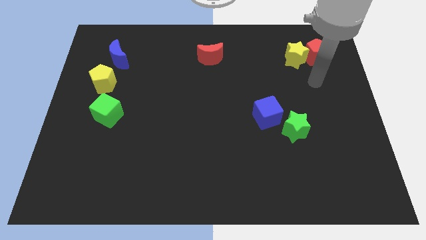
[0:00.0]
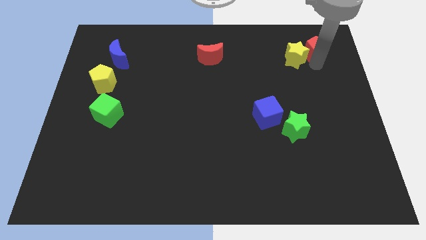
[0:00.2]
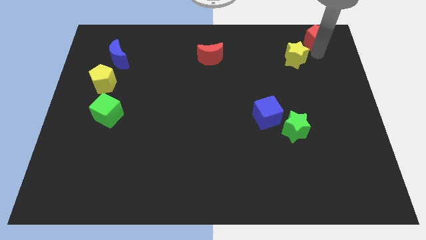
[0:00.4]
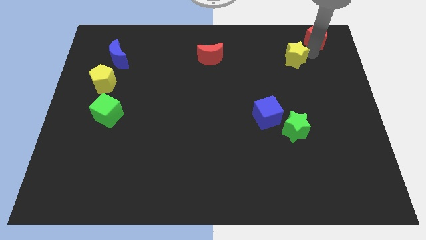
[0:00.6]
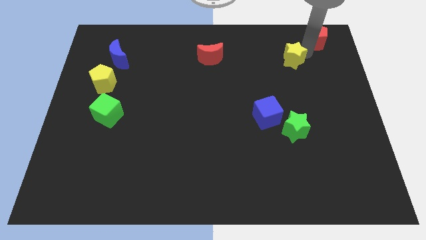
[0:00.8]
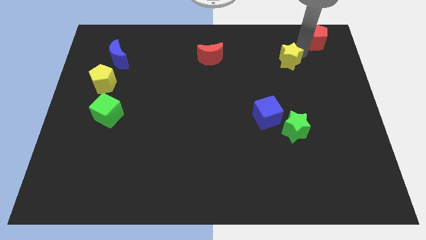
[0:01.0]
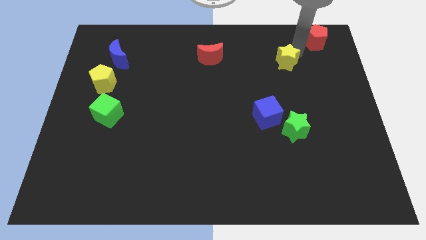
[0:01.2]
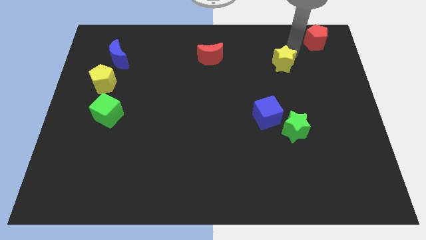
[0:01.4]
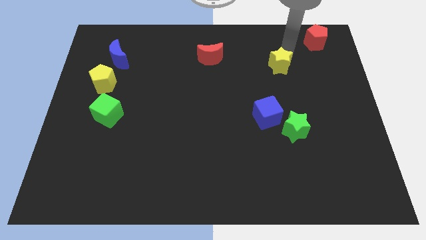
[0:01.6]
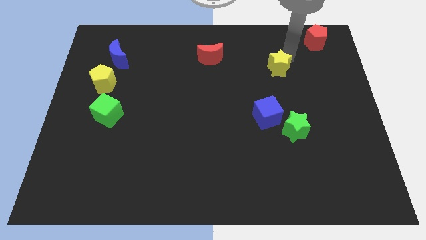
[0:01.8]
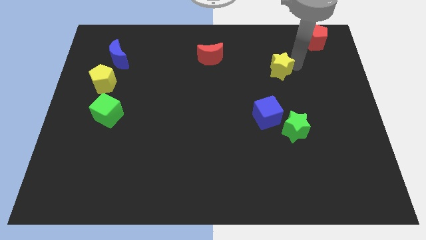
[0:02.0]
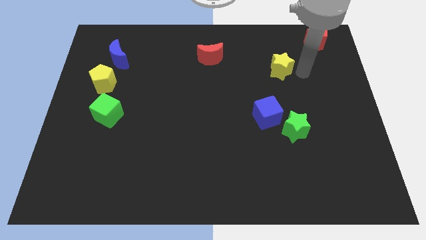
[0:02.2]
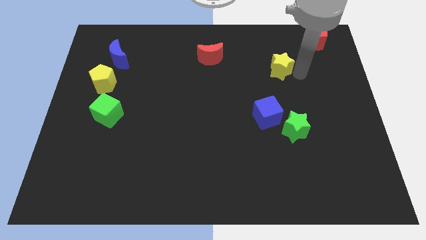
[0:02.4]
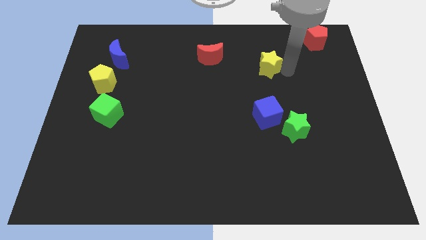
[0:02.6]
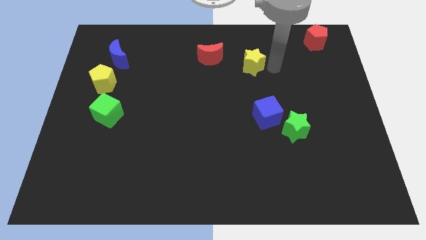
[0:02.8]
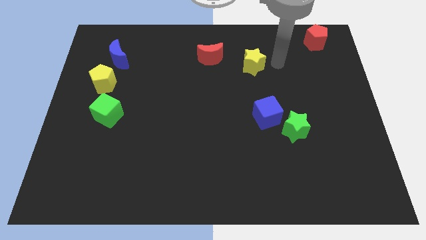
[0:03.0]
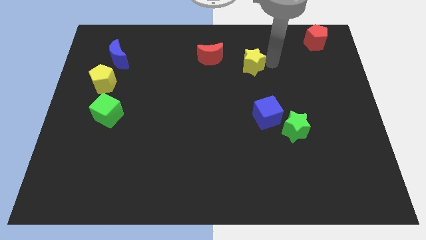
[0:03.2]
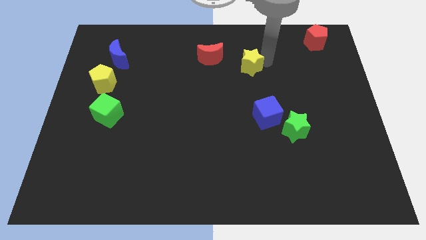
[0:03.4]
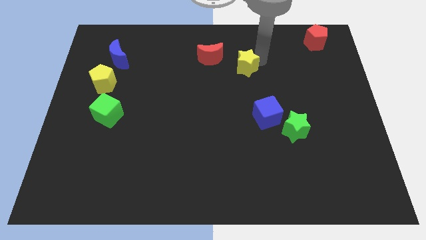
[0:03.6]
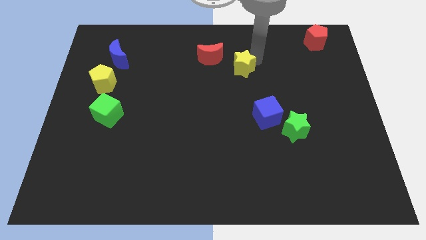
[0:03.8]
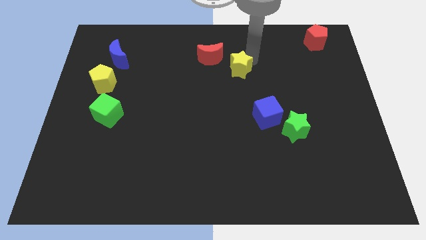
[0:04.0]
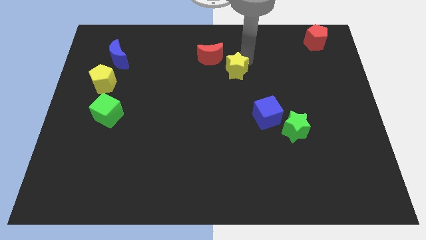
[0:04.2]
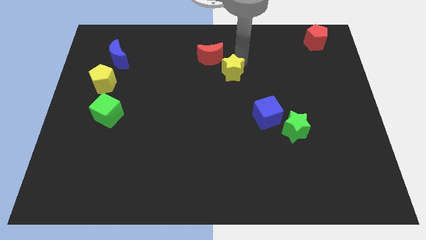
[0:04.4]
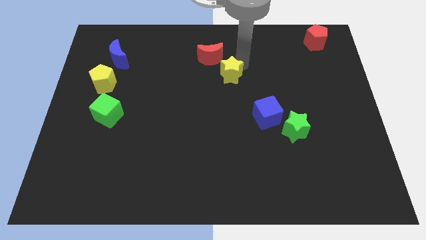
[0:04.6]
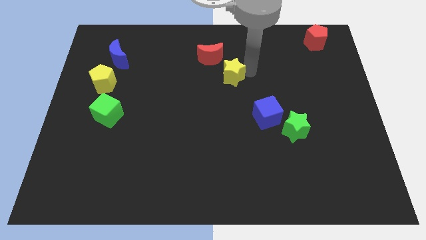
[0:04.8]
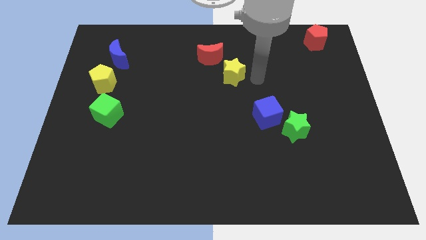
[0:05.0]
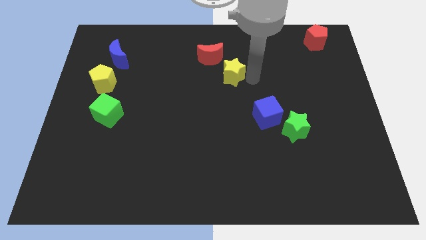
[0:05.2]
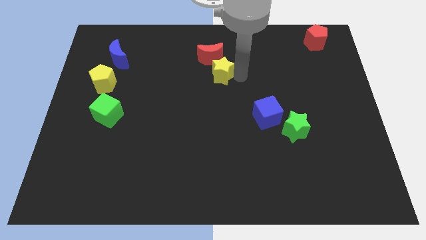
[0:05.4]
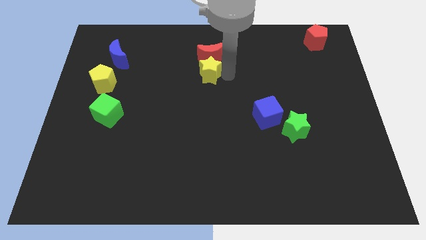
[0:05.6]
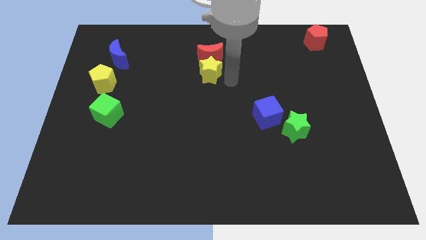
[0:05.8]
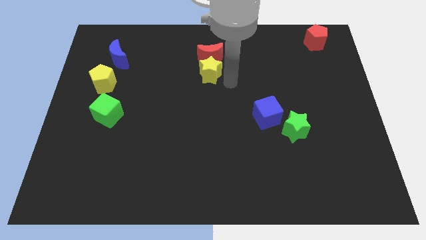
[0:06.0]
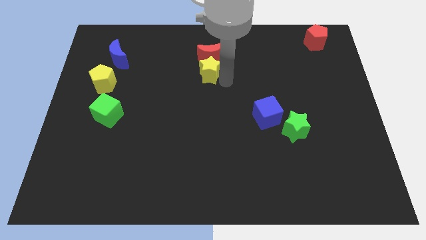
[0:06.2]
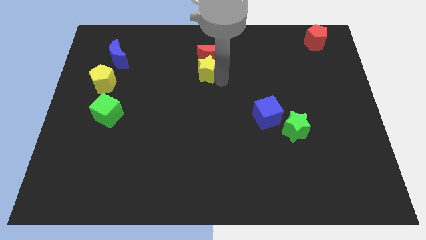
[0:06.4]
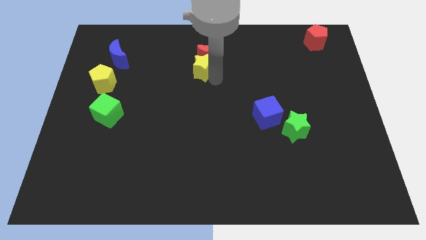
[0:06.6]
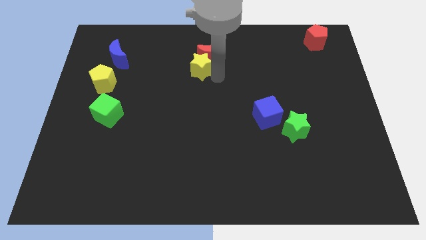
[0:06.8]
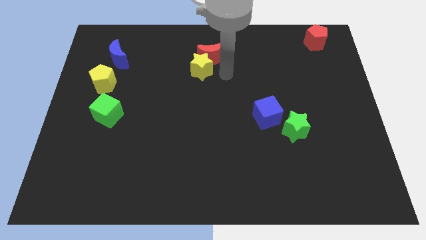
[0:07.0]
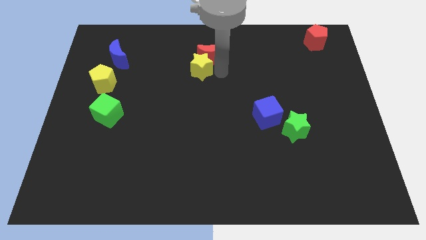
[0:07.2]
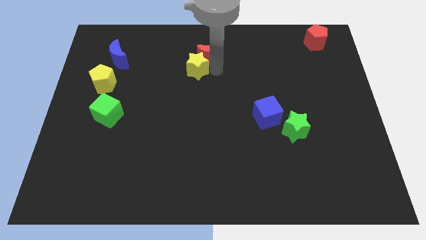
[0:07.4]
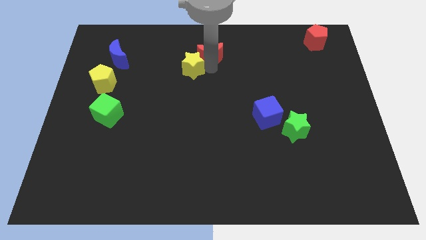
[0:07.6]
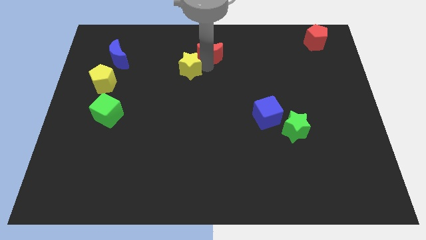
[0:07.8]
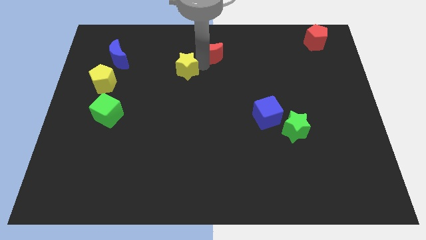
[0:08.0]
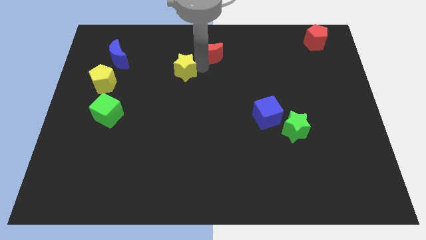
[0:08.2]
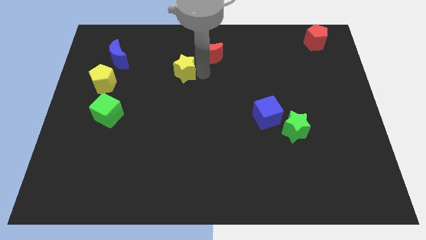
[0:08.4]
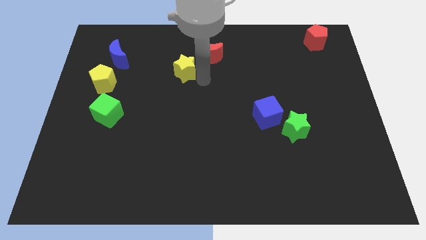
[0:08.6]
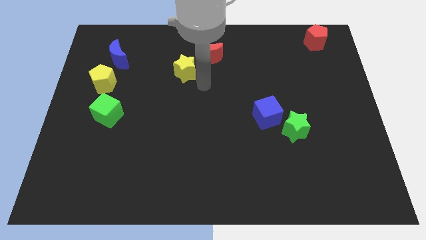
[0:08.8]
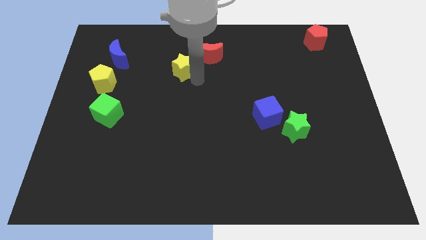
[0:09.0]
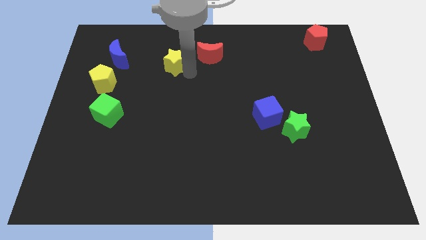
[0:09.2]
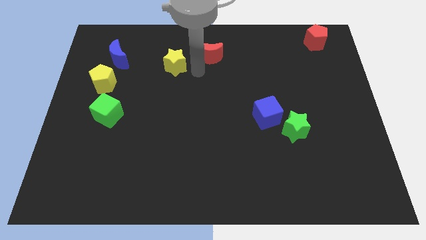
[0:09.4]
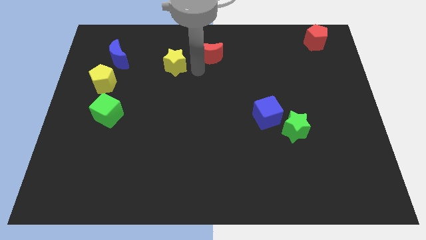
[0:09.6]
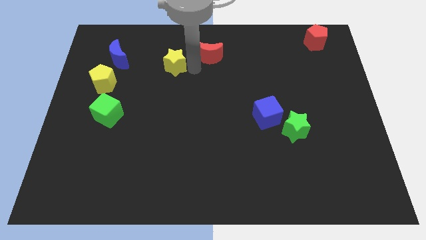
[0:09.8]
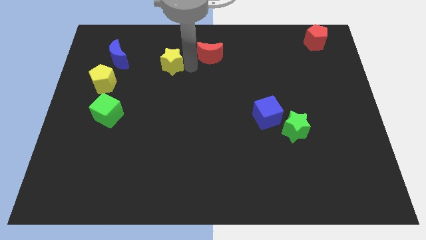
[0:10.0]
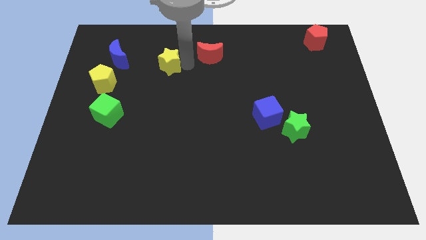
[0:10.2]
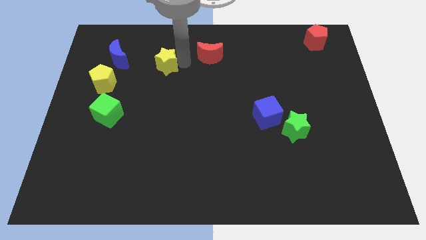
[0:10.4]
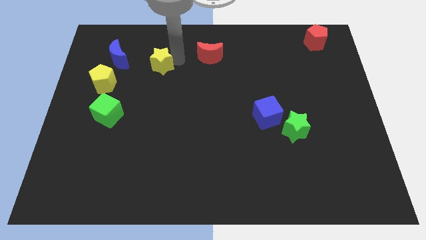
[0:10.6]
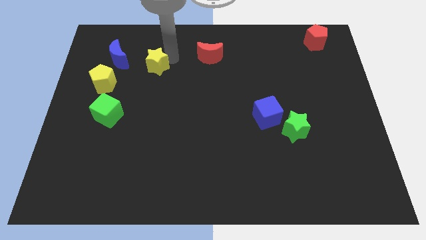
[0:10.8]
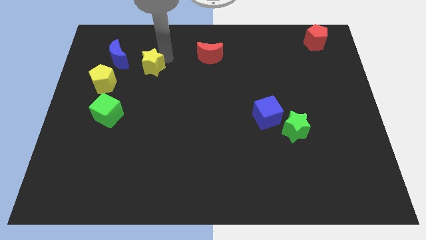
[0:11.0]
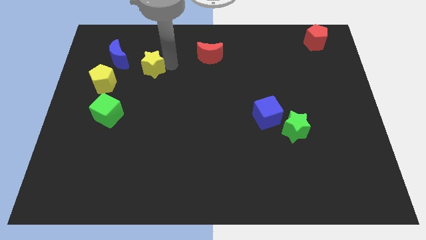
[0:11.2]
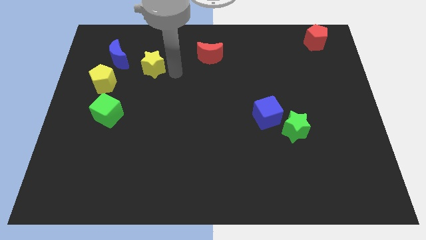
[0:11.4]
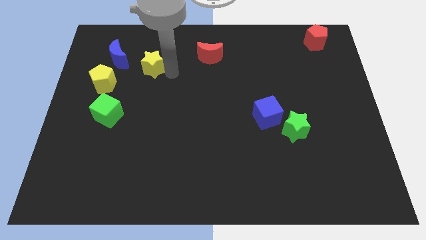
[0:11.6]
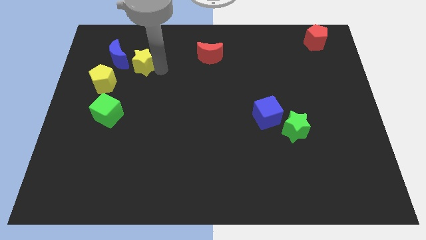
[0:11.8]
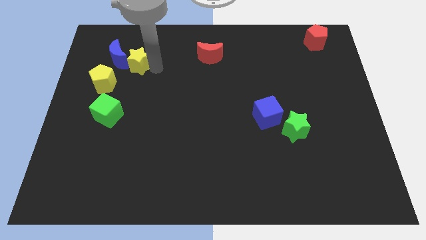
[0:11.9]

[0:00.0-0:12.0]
move the yellow star to the blue moon
